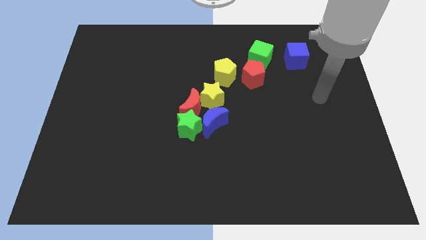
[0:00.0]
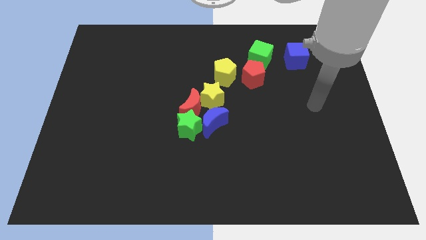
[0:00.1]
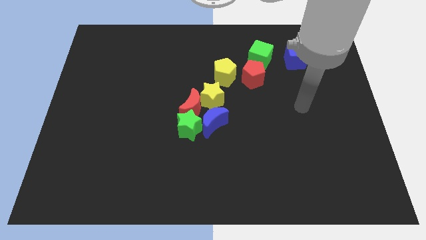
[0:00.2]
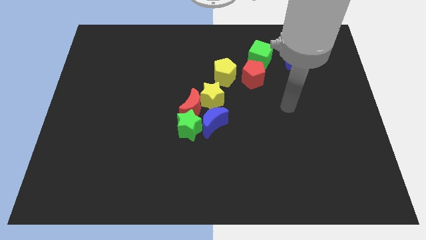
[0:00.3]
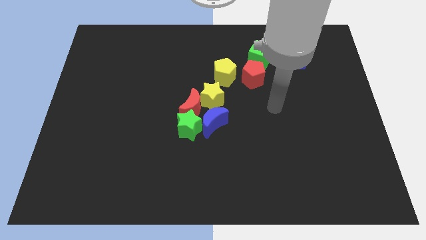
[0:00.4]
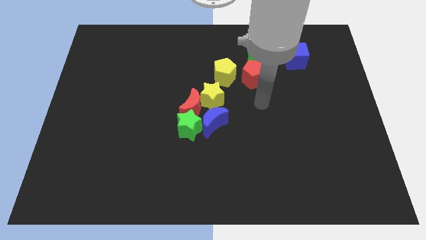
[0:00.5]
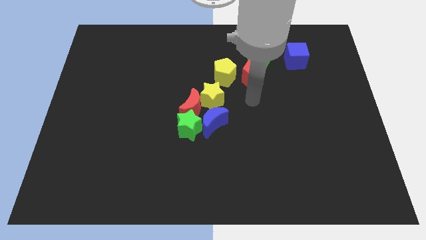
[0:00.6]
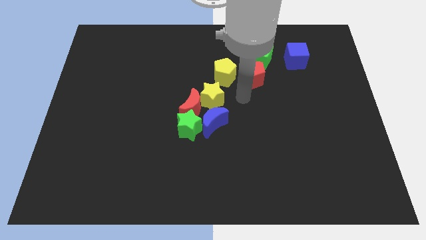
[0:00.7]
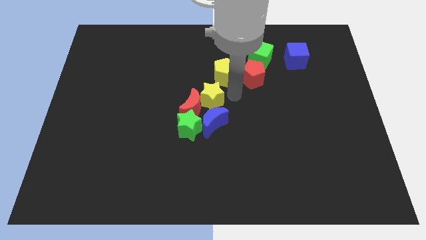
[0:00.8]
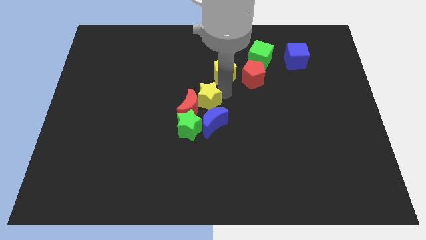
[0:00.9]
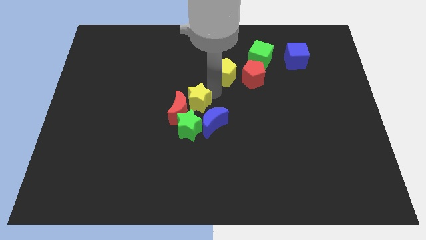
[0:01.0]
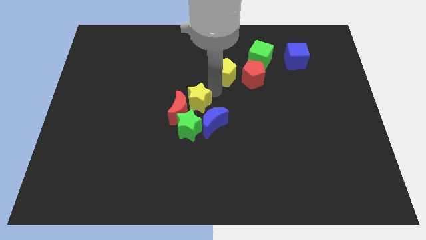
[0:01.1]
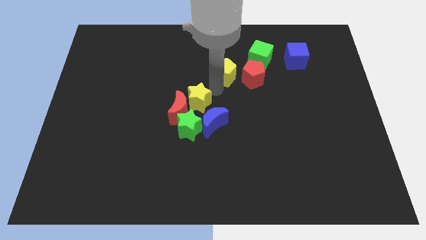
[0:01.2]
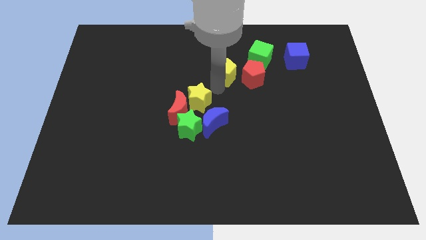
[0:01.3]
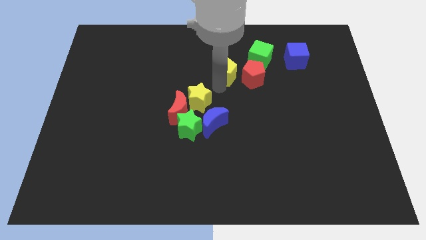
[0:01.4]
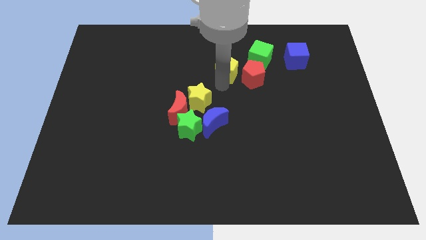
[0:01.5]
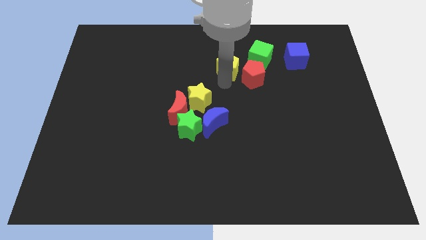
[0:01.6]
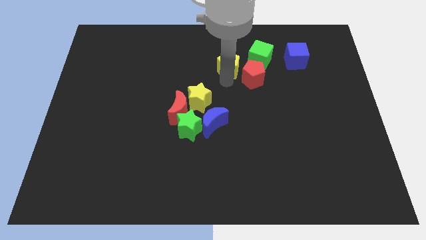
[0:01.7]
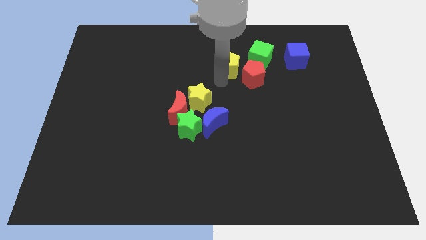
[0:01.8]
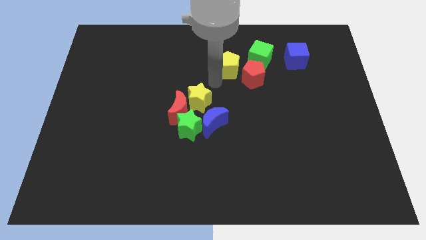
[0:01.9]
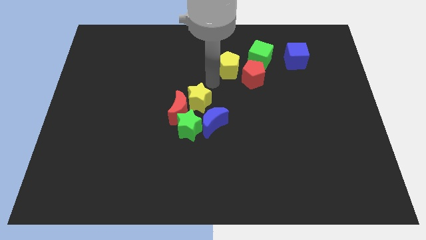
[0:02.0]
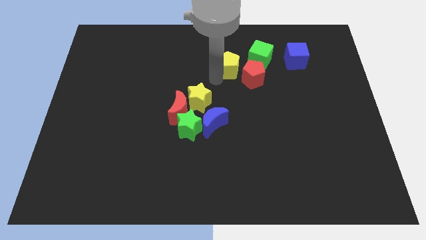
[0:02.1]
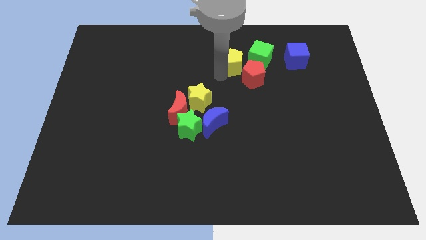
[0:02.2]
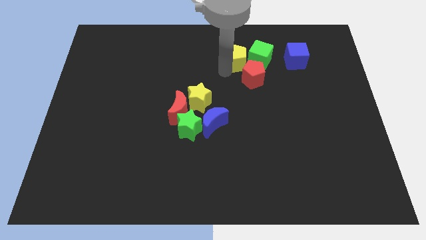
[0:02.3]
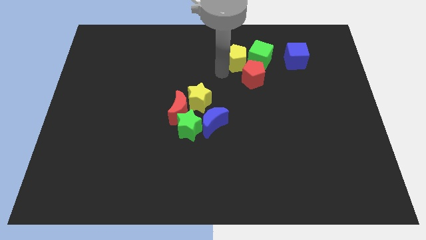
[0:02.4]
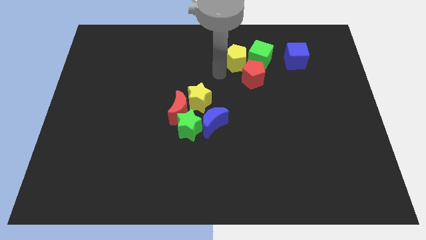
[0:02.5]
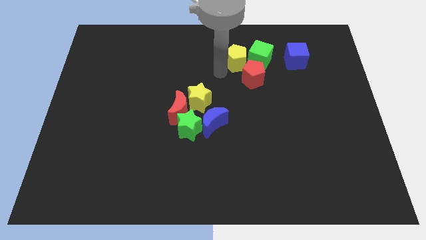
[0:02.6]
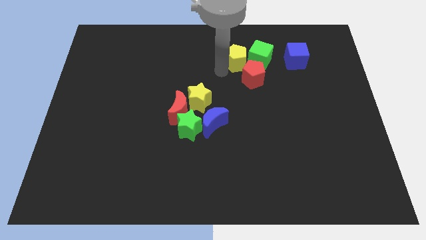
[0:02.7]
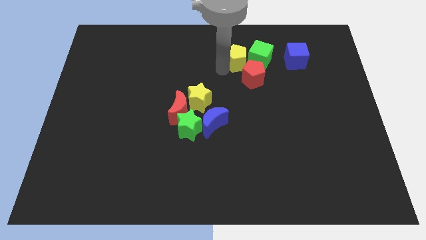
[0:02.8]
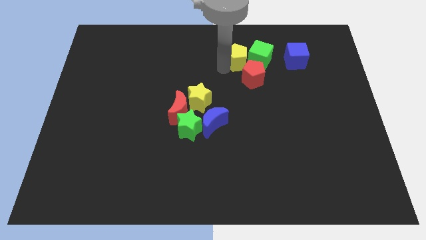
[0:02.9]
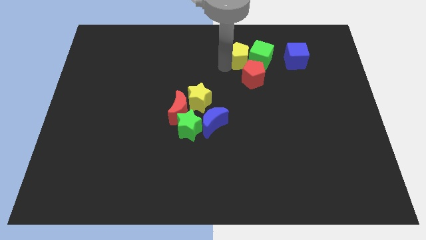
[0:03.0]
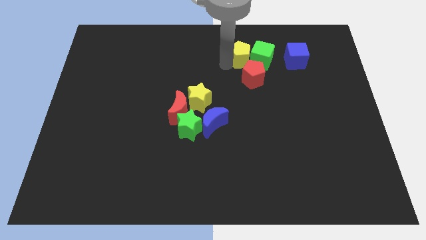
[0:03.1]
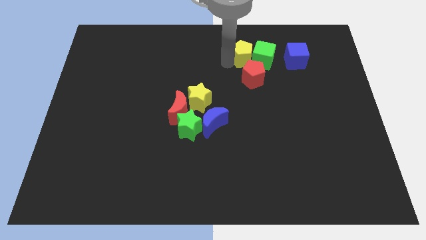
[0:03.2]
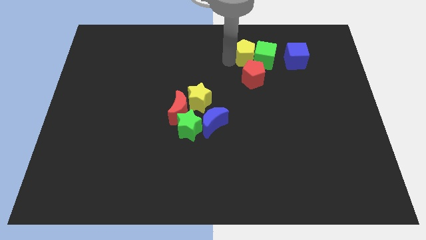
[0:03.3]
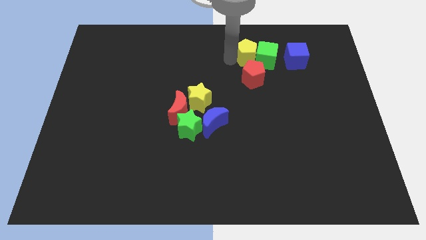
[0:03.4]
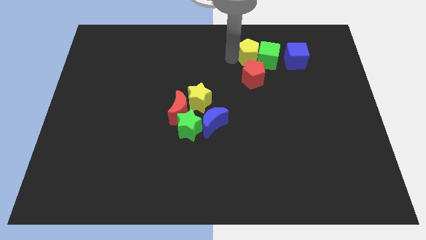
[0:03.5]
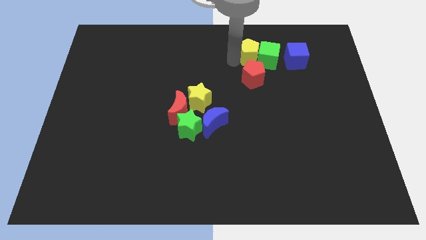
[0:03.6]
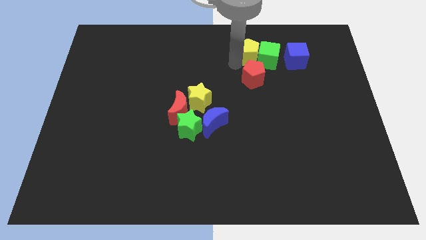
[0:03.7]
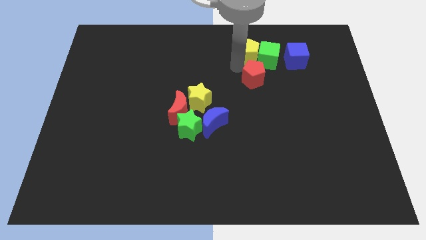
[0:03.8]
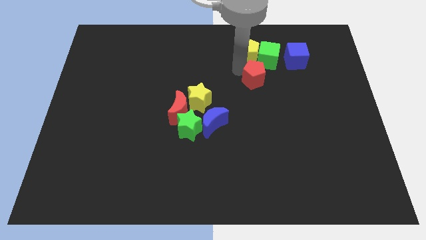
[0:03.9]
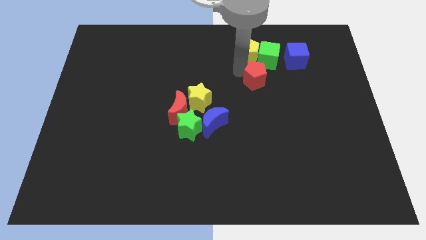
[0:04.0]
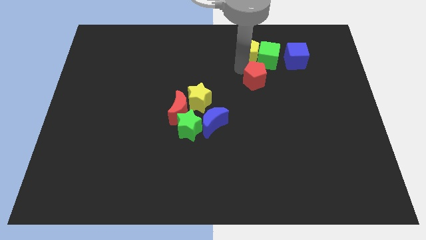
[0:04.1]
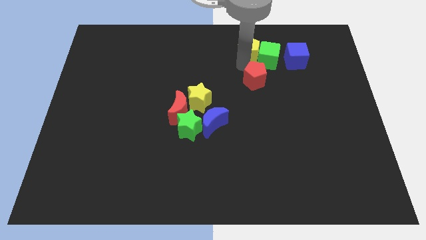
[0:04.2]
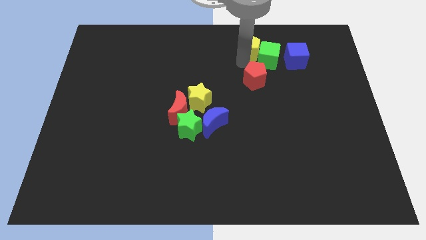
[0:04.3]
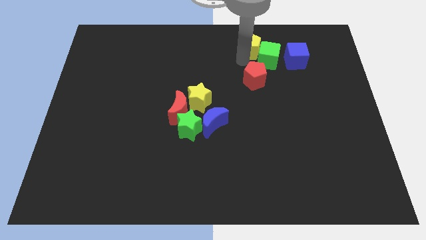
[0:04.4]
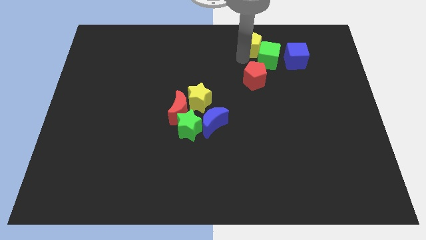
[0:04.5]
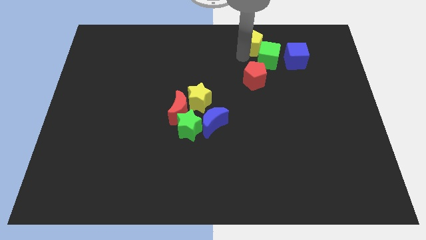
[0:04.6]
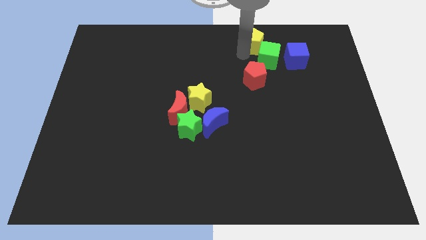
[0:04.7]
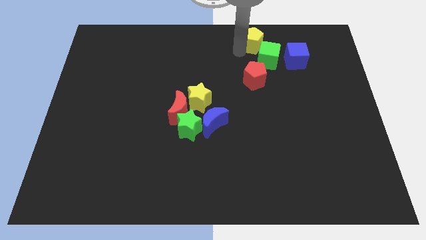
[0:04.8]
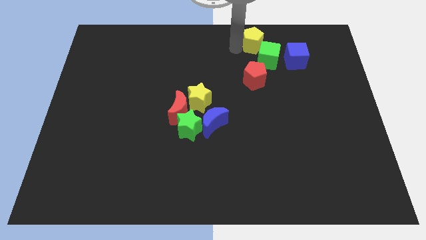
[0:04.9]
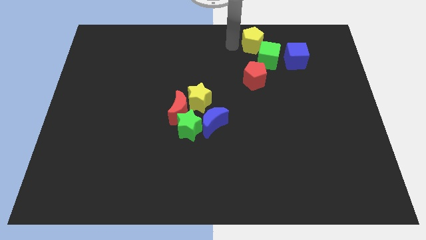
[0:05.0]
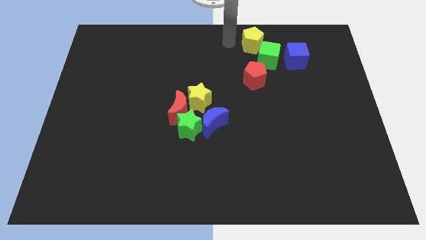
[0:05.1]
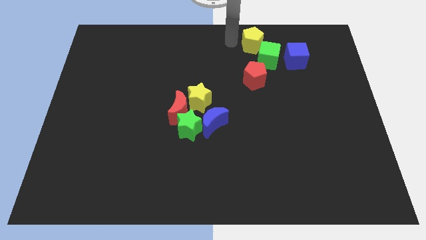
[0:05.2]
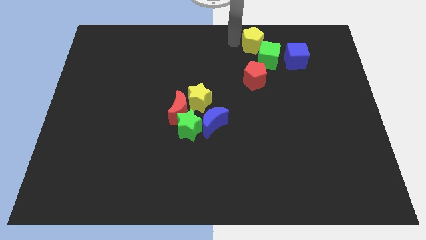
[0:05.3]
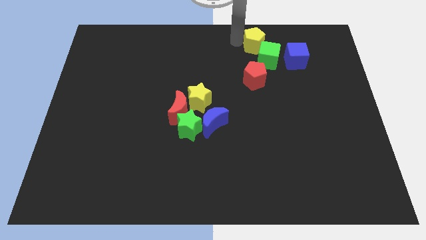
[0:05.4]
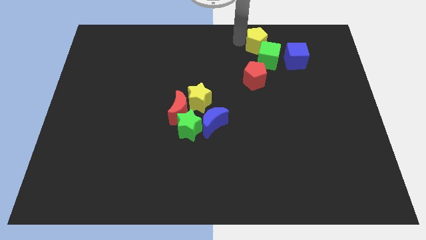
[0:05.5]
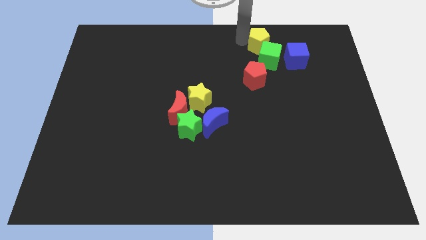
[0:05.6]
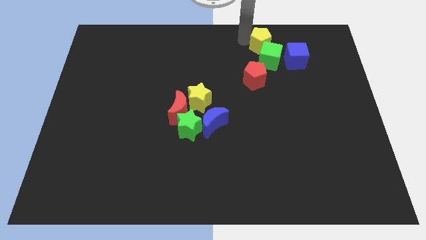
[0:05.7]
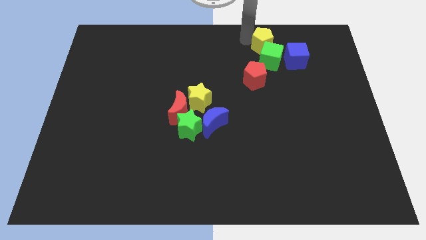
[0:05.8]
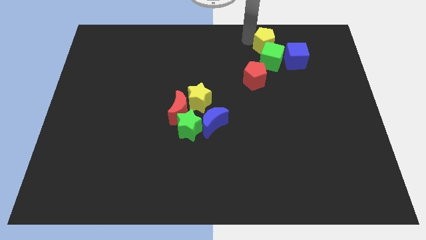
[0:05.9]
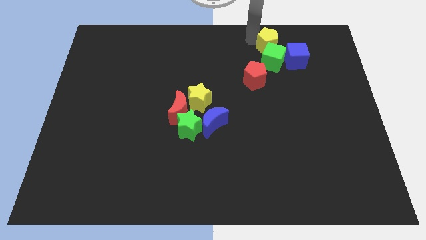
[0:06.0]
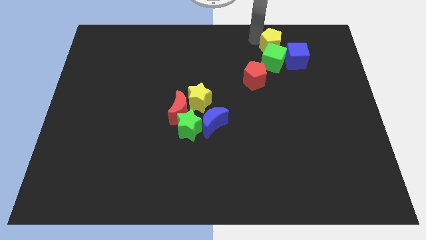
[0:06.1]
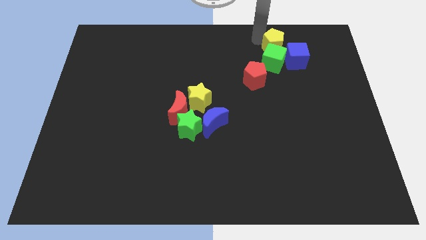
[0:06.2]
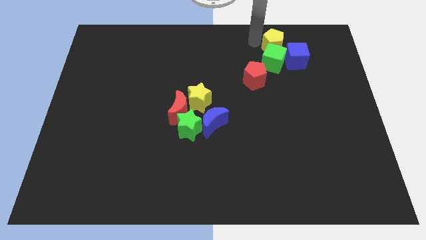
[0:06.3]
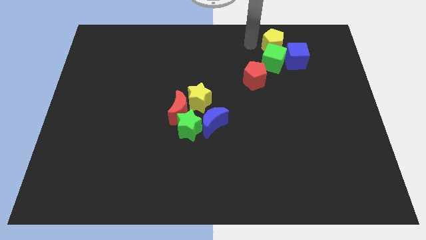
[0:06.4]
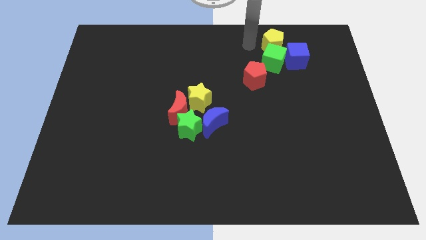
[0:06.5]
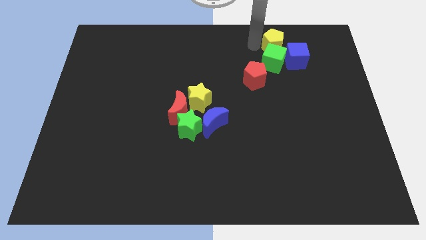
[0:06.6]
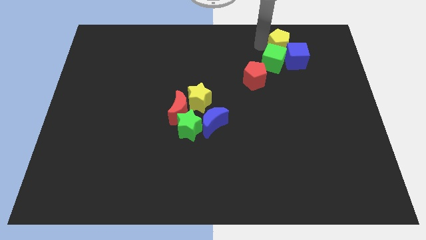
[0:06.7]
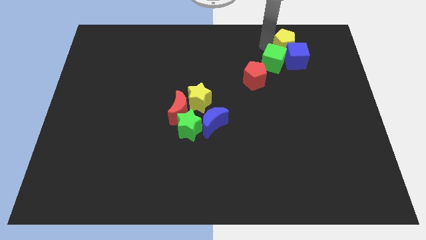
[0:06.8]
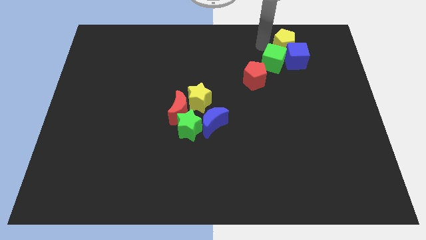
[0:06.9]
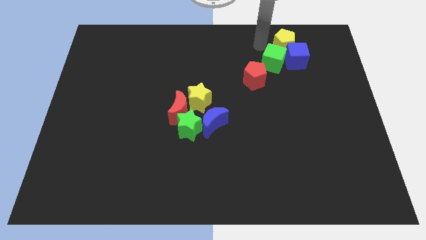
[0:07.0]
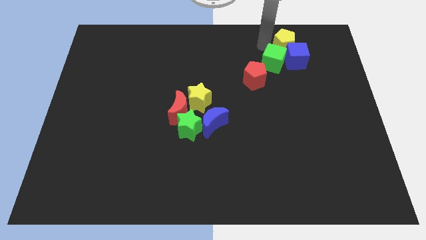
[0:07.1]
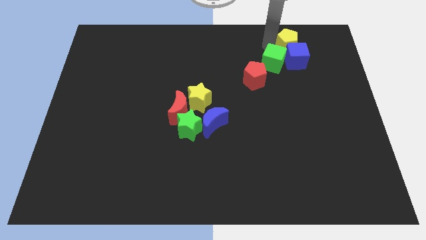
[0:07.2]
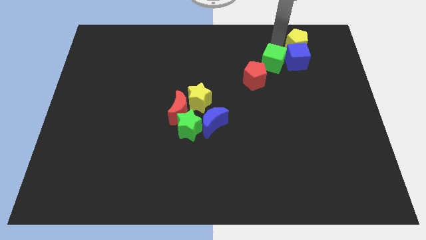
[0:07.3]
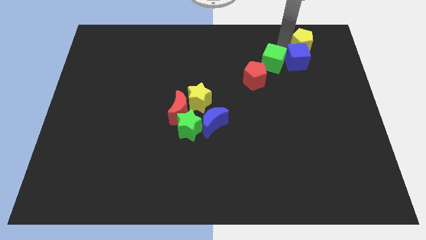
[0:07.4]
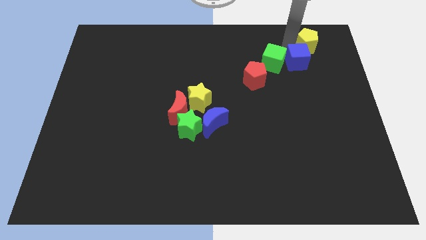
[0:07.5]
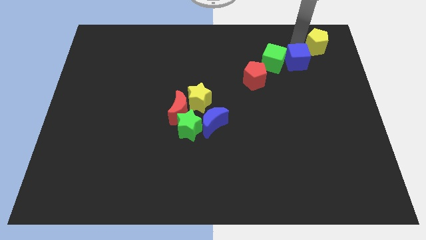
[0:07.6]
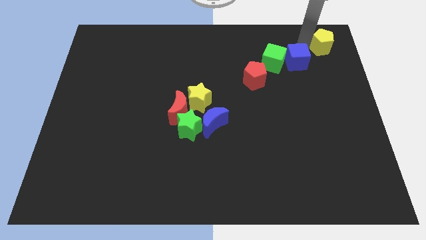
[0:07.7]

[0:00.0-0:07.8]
slide the yellow pentagon to the top right of the board
